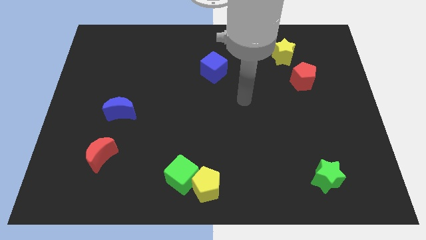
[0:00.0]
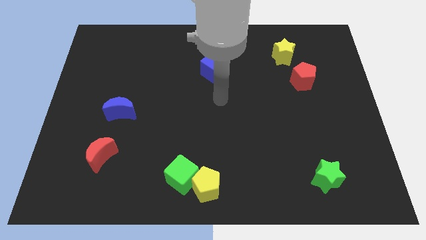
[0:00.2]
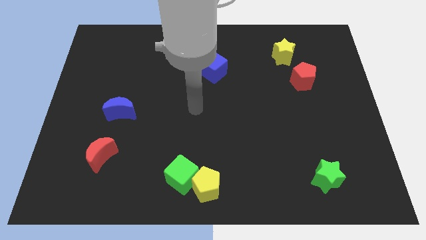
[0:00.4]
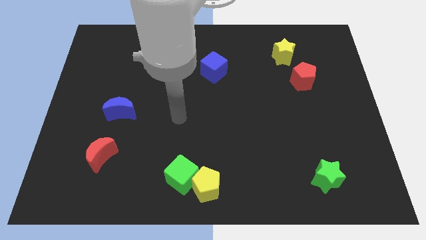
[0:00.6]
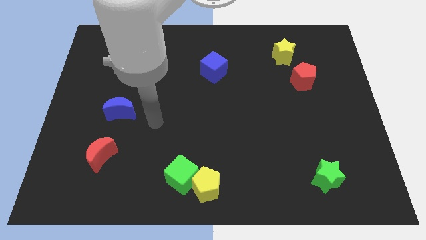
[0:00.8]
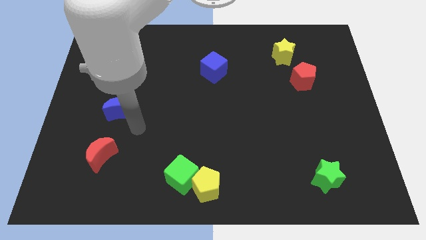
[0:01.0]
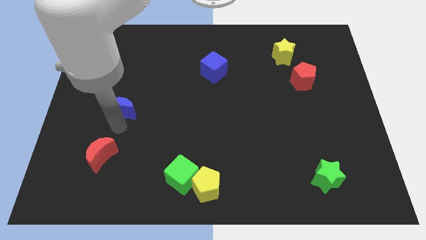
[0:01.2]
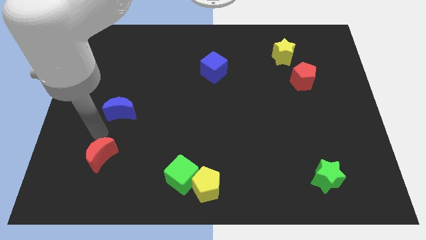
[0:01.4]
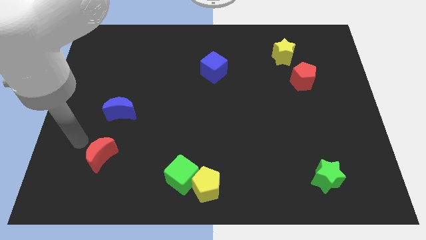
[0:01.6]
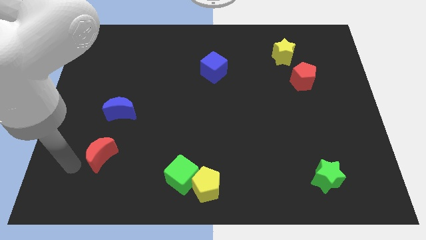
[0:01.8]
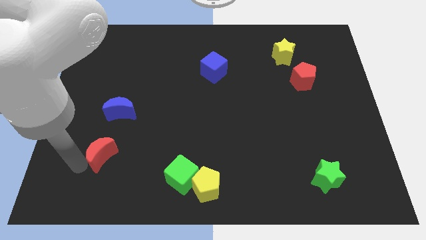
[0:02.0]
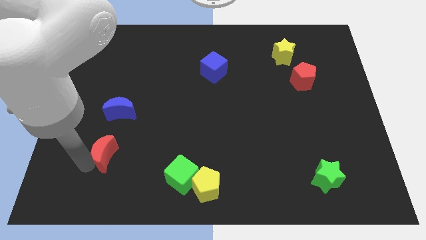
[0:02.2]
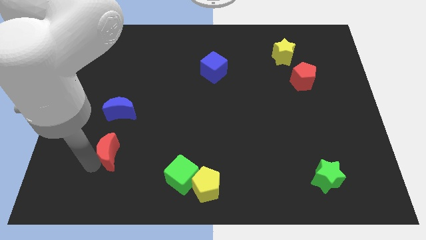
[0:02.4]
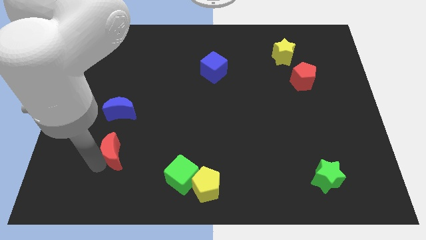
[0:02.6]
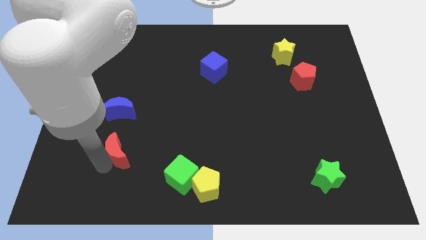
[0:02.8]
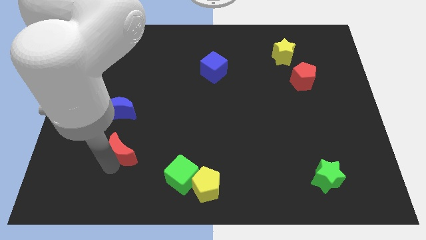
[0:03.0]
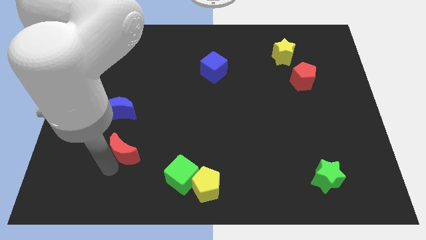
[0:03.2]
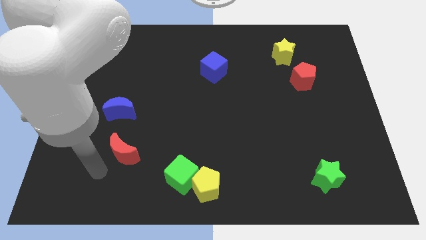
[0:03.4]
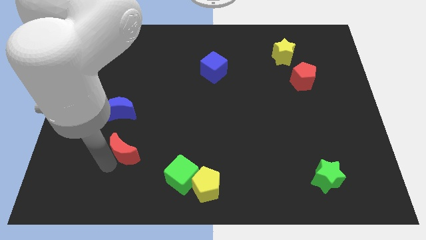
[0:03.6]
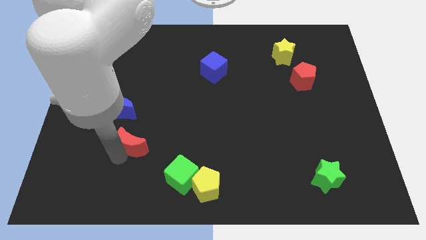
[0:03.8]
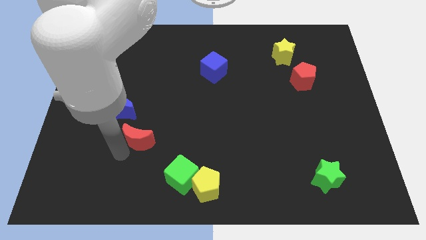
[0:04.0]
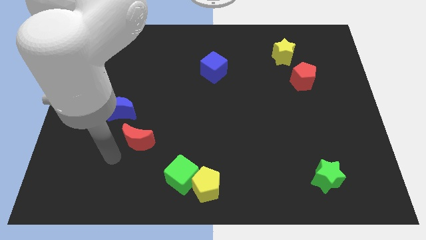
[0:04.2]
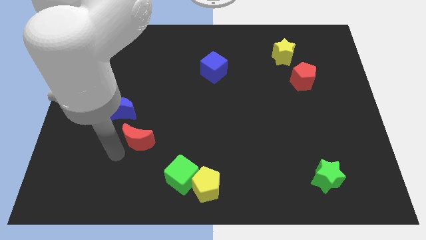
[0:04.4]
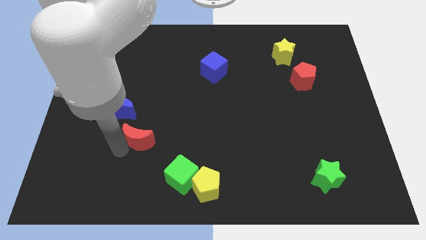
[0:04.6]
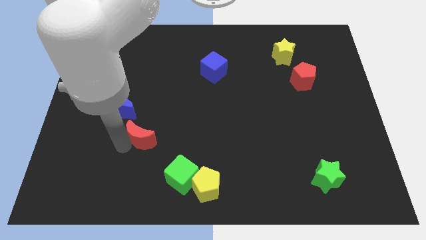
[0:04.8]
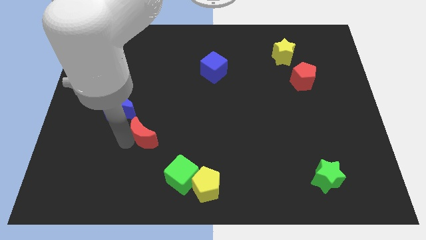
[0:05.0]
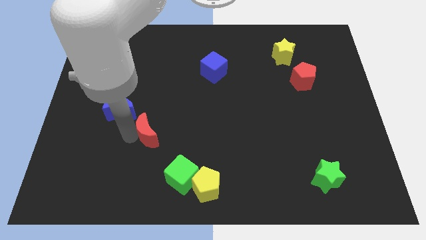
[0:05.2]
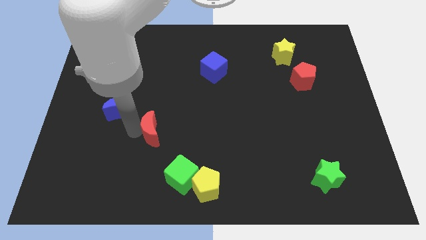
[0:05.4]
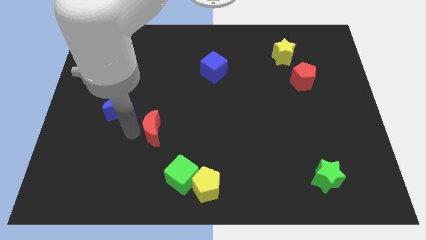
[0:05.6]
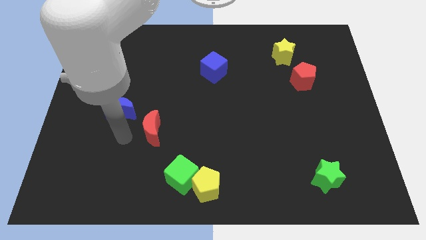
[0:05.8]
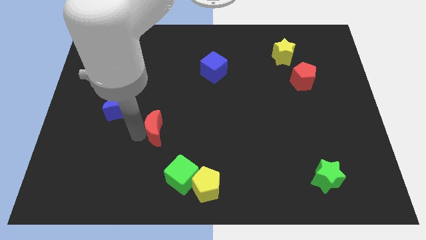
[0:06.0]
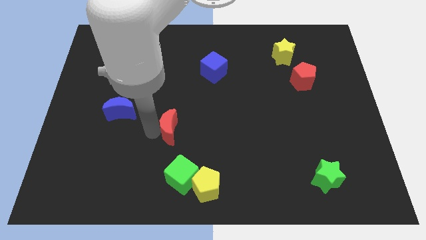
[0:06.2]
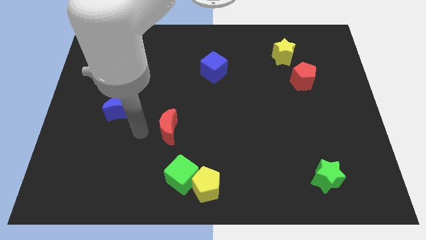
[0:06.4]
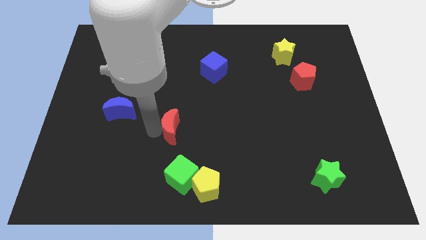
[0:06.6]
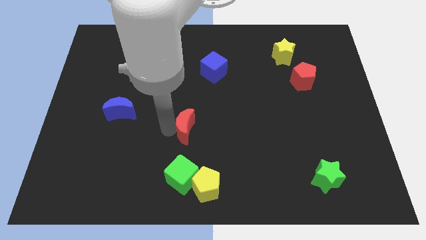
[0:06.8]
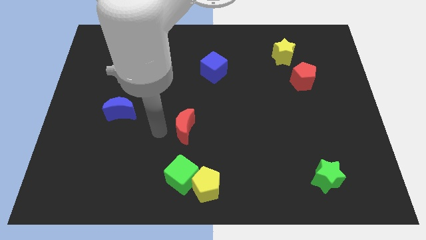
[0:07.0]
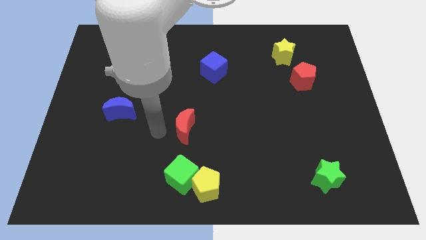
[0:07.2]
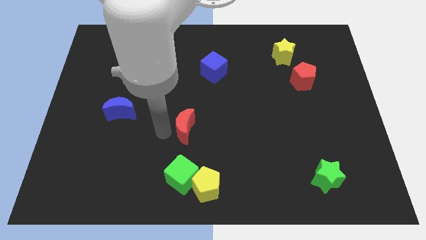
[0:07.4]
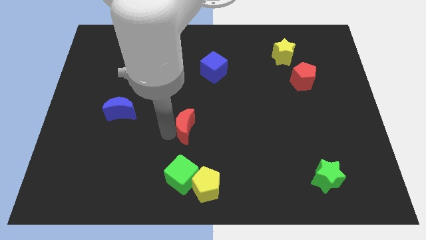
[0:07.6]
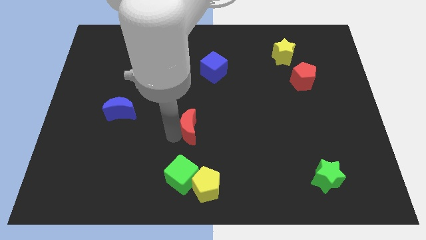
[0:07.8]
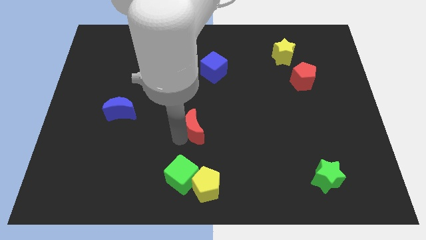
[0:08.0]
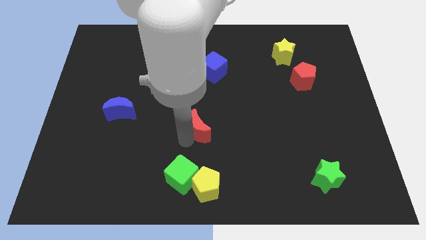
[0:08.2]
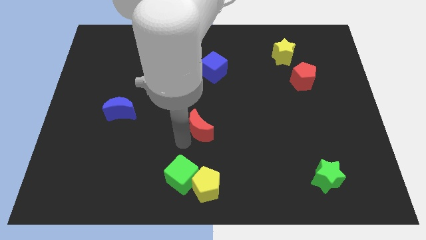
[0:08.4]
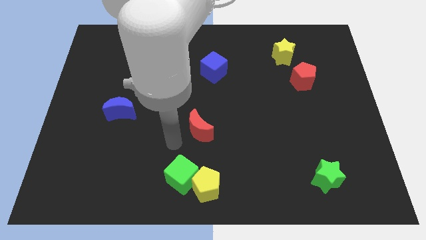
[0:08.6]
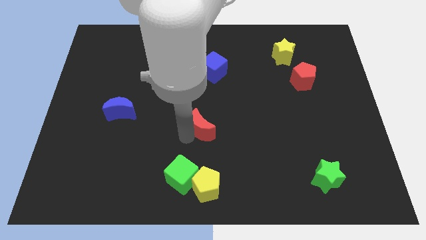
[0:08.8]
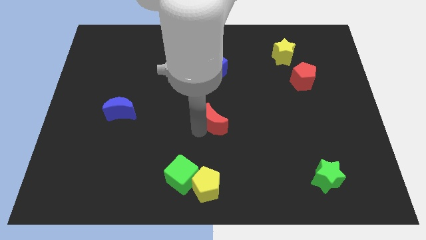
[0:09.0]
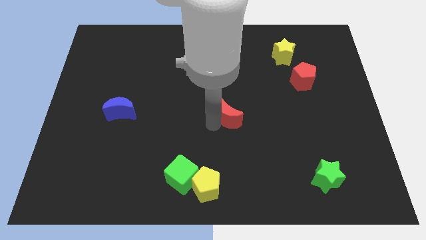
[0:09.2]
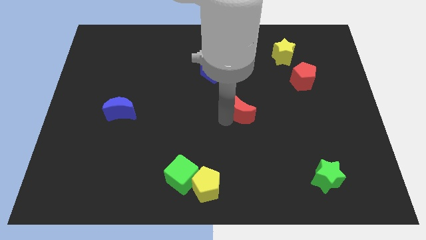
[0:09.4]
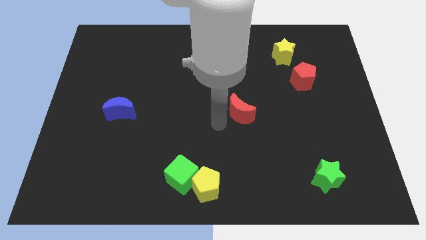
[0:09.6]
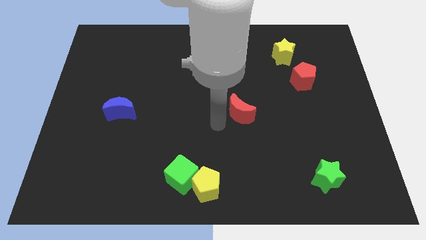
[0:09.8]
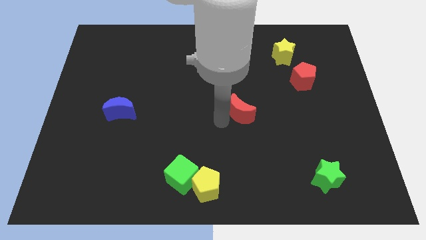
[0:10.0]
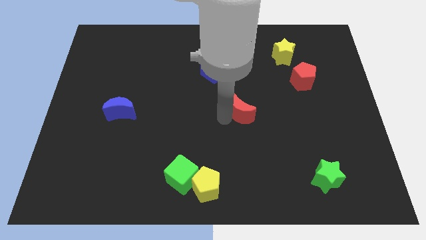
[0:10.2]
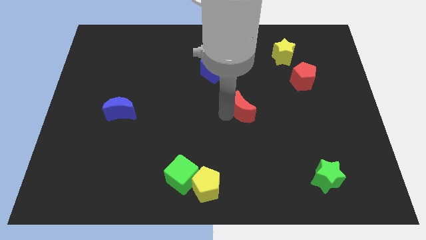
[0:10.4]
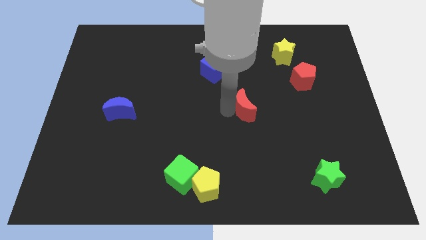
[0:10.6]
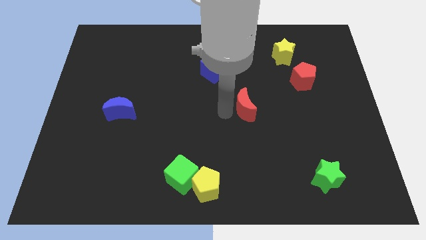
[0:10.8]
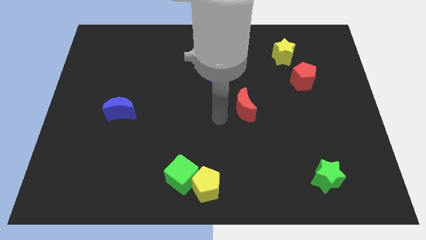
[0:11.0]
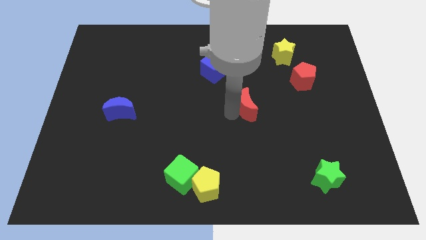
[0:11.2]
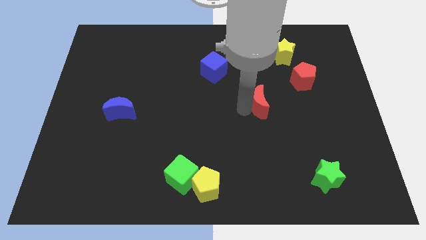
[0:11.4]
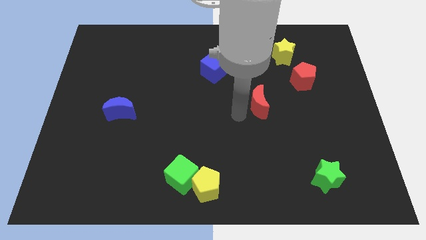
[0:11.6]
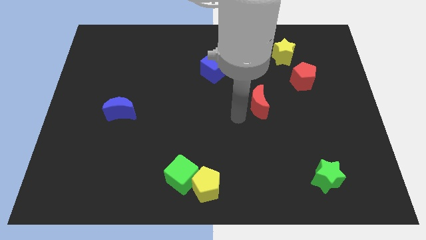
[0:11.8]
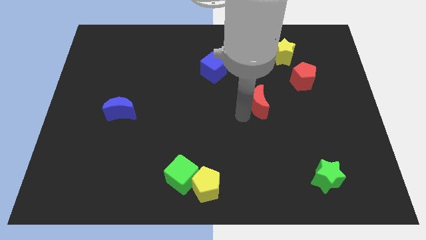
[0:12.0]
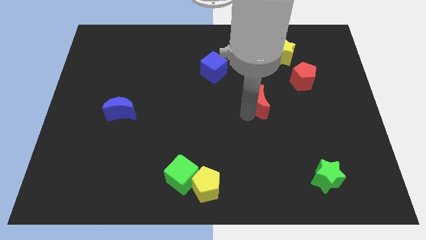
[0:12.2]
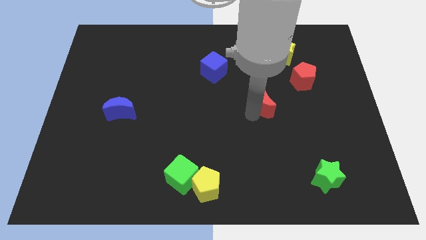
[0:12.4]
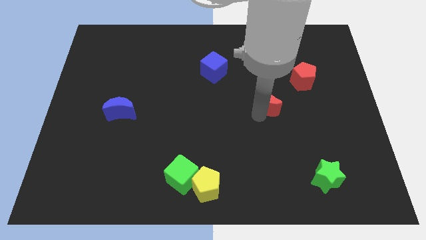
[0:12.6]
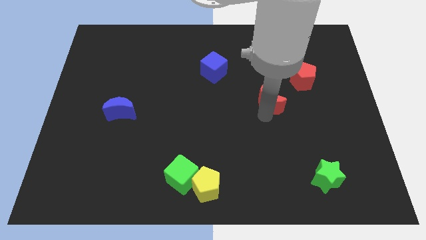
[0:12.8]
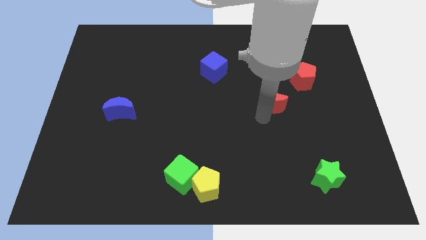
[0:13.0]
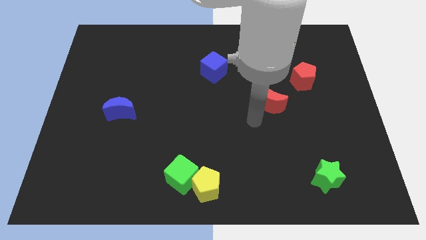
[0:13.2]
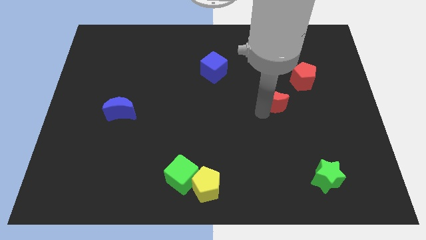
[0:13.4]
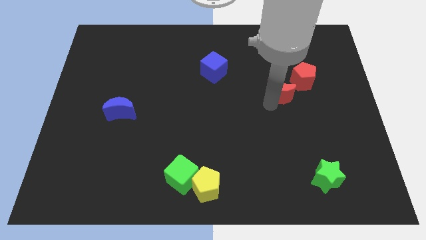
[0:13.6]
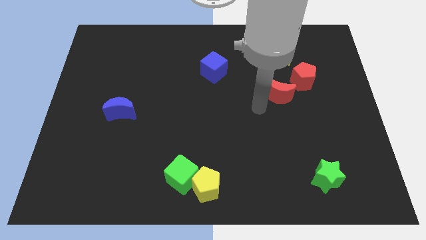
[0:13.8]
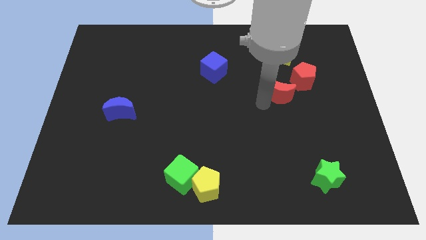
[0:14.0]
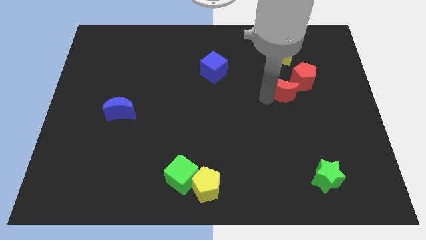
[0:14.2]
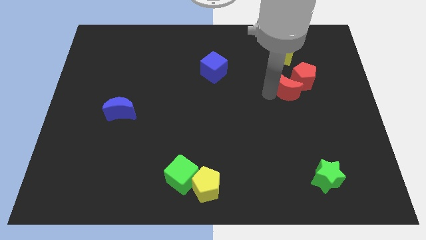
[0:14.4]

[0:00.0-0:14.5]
move the red moon next to the red pentagon
